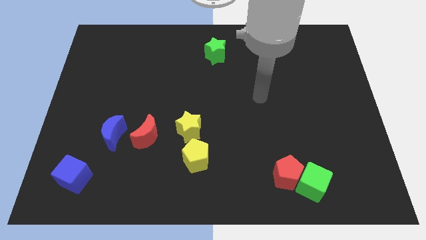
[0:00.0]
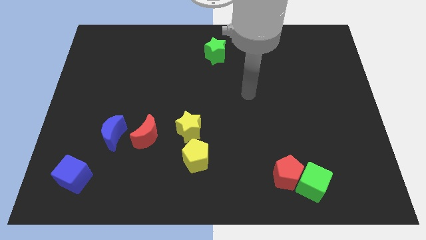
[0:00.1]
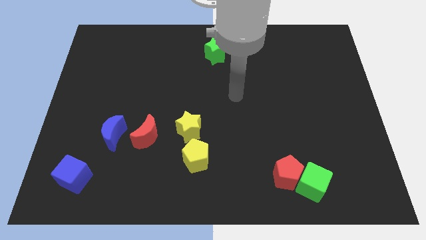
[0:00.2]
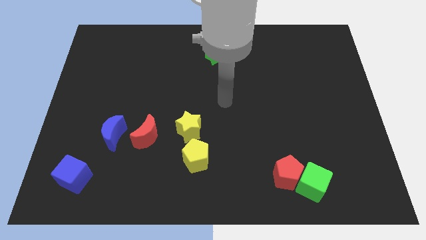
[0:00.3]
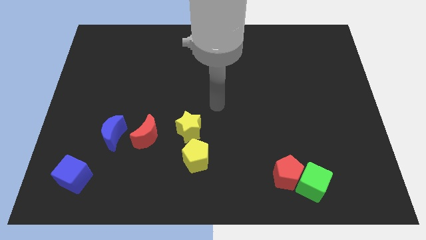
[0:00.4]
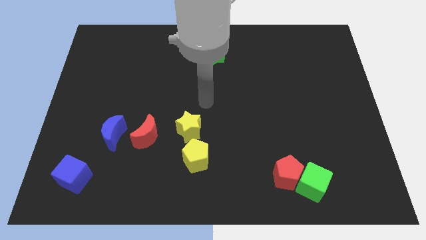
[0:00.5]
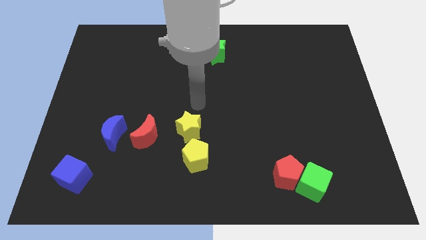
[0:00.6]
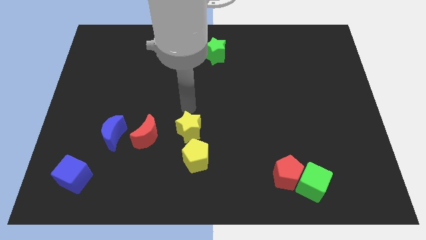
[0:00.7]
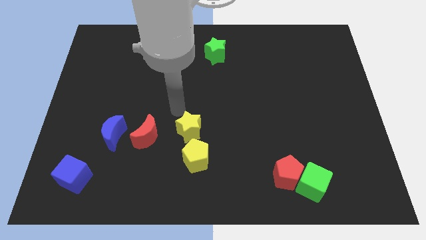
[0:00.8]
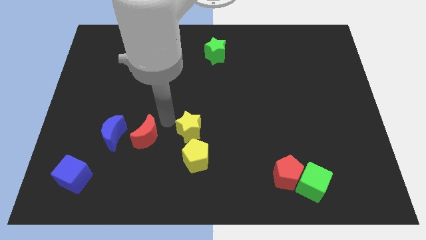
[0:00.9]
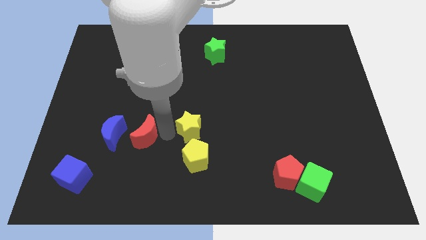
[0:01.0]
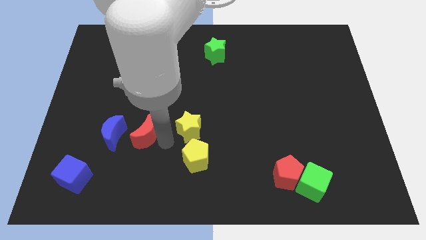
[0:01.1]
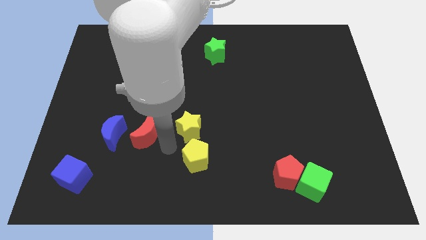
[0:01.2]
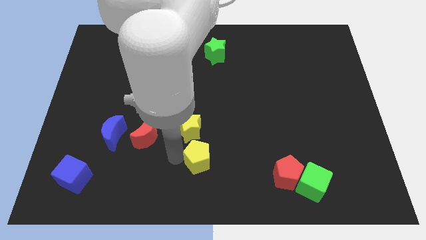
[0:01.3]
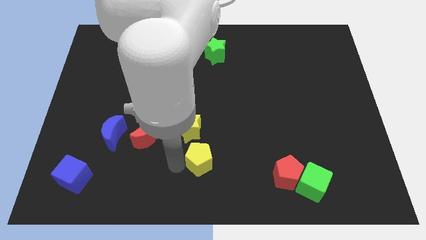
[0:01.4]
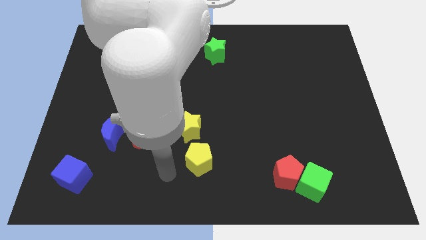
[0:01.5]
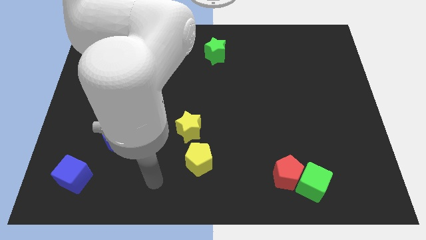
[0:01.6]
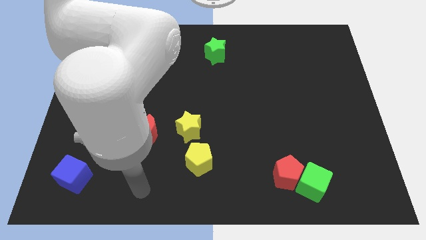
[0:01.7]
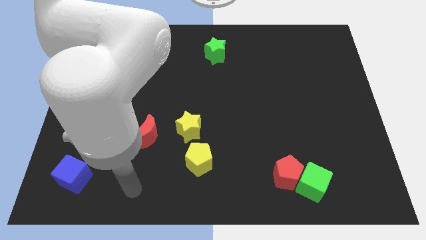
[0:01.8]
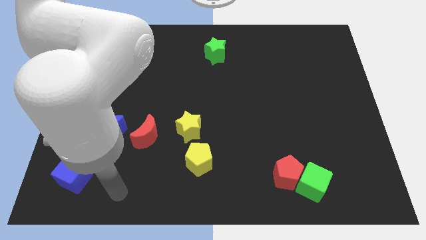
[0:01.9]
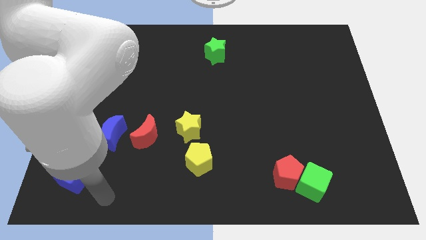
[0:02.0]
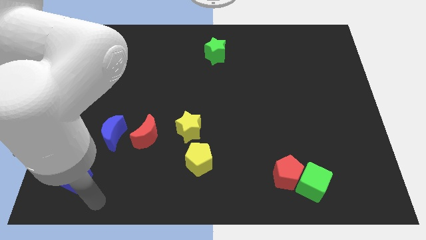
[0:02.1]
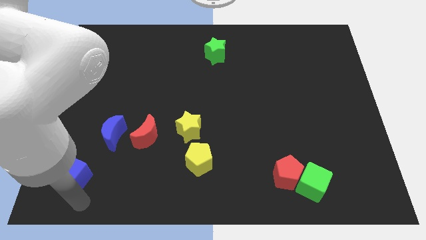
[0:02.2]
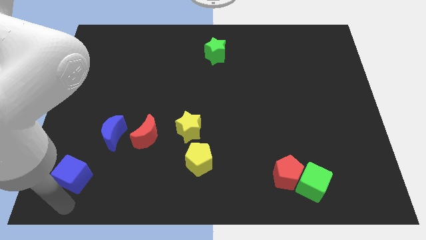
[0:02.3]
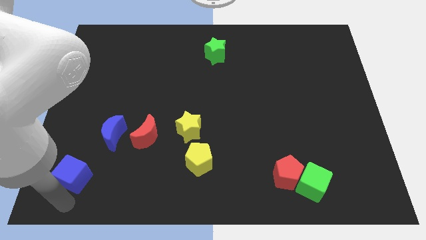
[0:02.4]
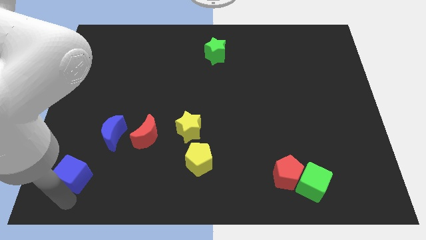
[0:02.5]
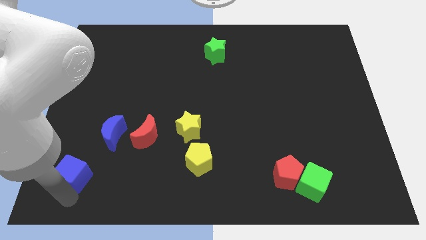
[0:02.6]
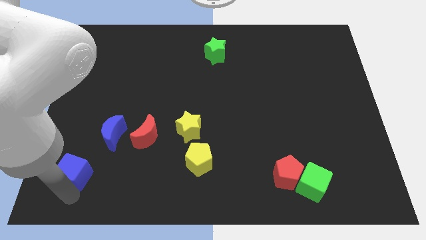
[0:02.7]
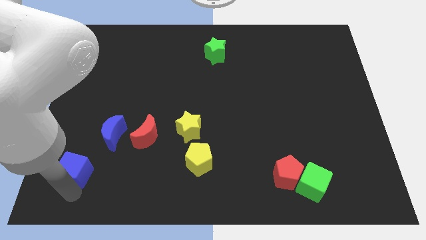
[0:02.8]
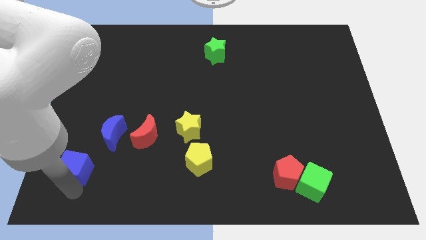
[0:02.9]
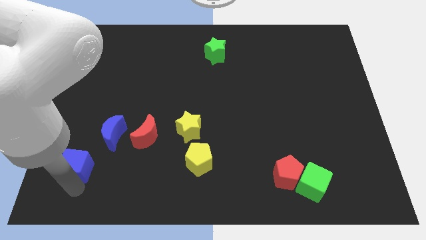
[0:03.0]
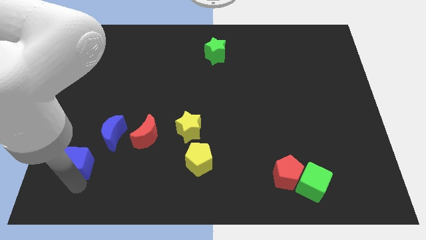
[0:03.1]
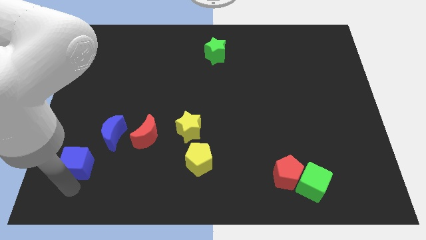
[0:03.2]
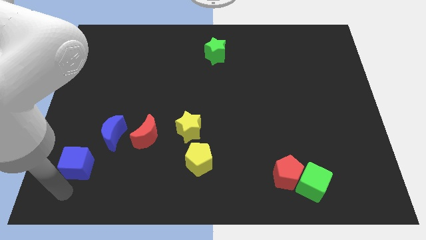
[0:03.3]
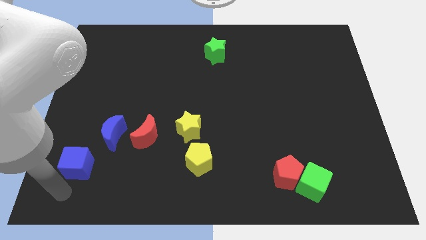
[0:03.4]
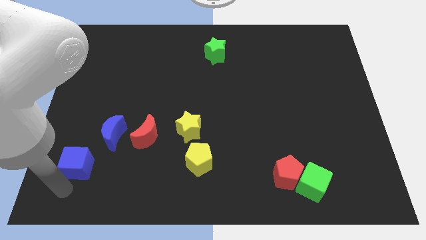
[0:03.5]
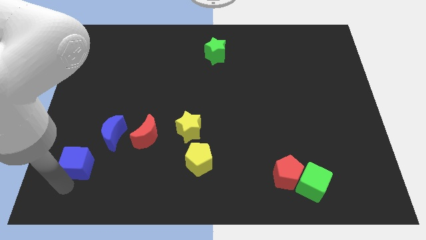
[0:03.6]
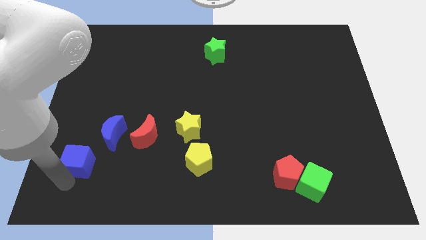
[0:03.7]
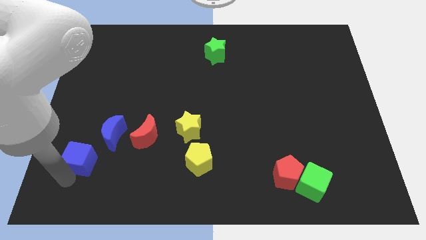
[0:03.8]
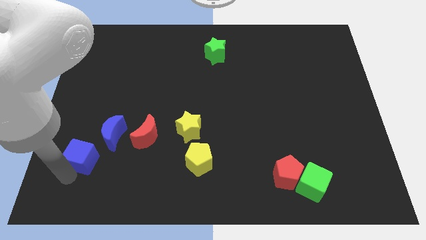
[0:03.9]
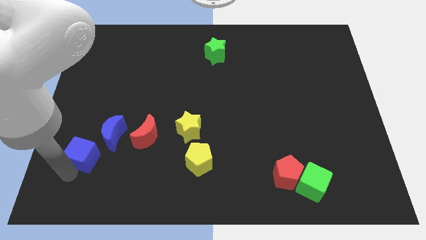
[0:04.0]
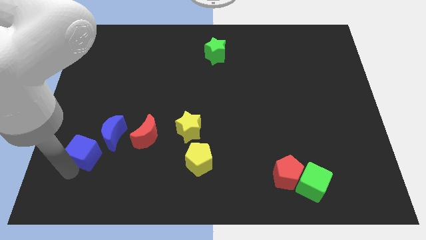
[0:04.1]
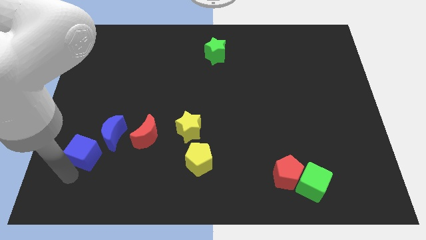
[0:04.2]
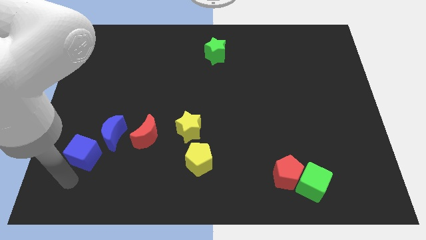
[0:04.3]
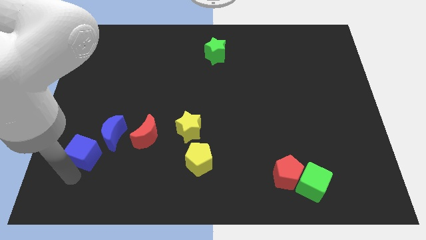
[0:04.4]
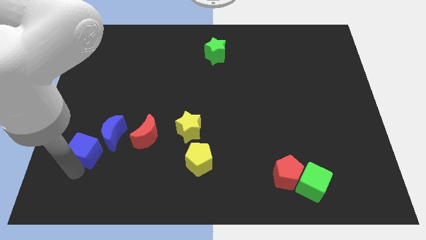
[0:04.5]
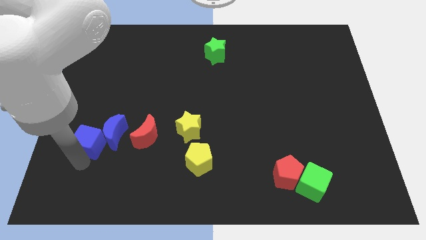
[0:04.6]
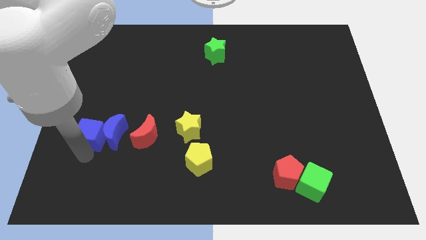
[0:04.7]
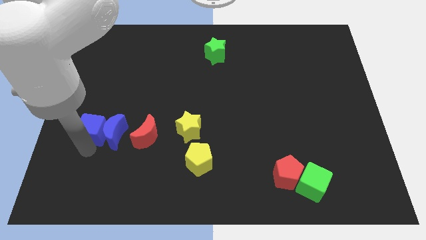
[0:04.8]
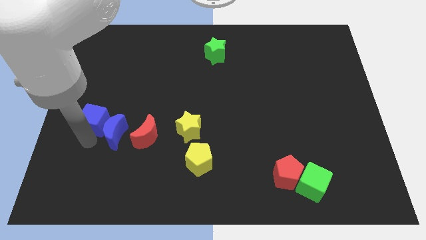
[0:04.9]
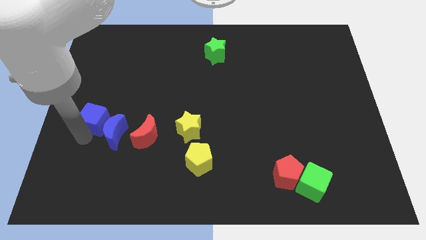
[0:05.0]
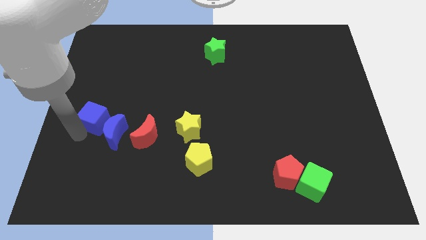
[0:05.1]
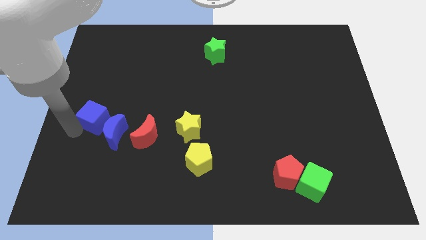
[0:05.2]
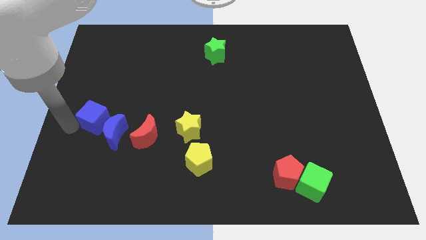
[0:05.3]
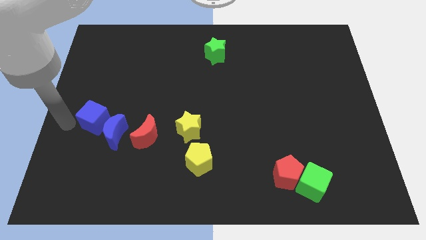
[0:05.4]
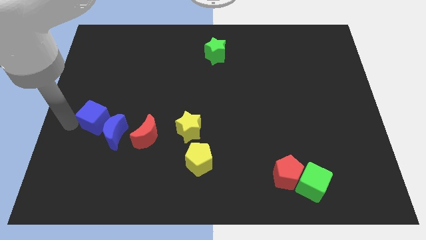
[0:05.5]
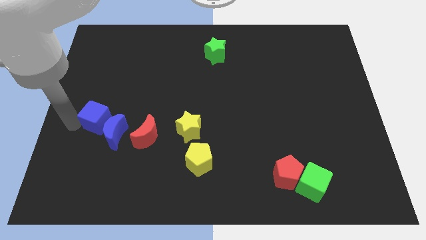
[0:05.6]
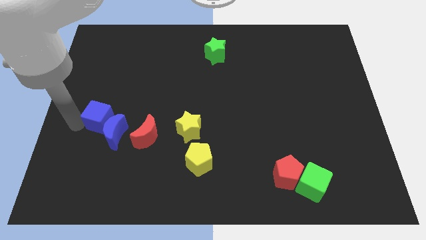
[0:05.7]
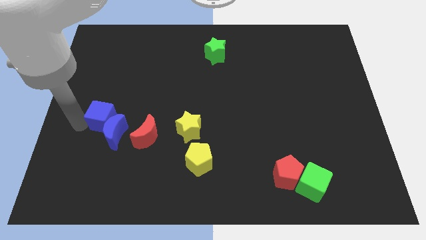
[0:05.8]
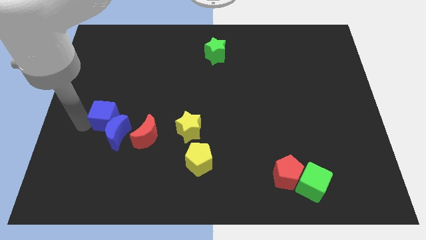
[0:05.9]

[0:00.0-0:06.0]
move the blue cube to the top left of the red moon

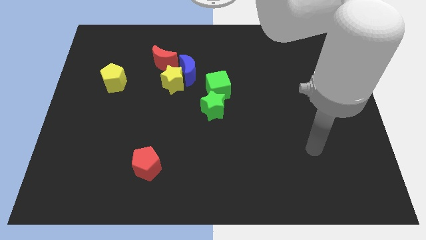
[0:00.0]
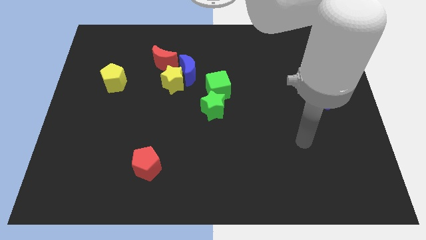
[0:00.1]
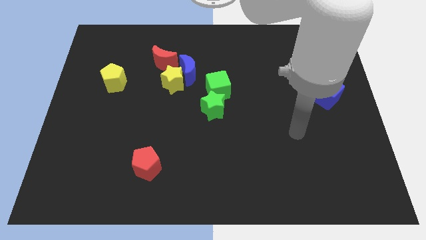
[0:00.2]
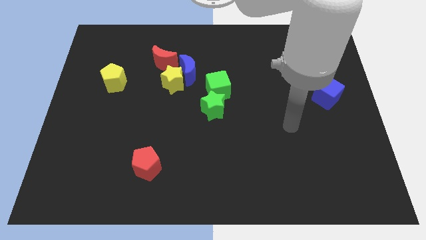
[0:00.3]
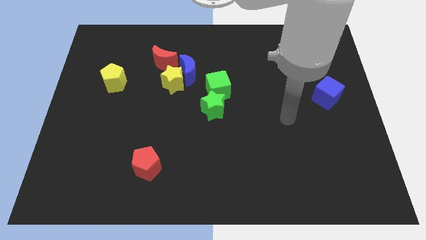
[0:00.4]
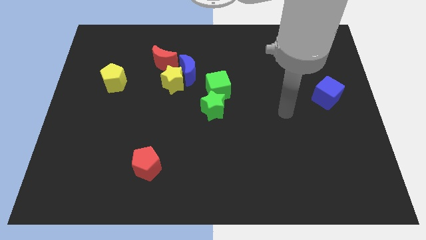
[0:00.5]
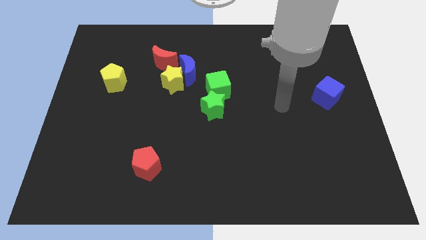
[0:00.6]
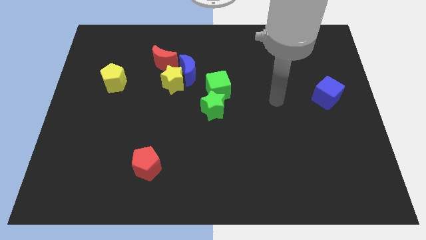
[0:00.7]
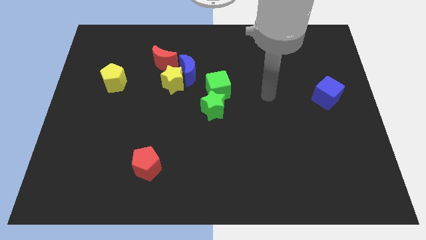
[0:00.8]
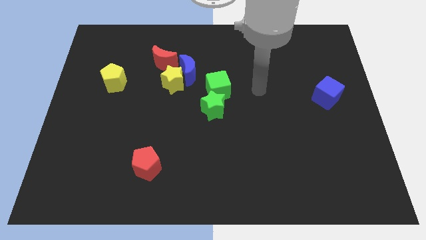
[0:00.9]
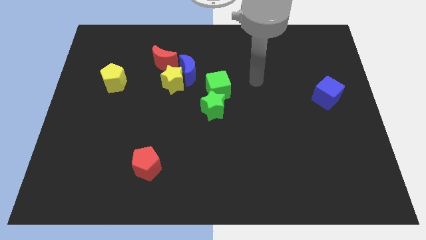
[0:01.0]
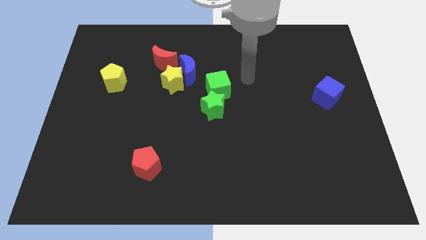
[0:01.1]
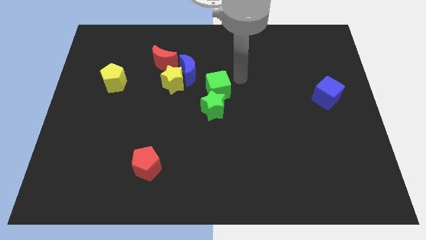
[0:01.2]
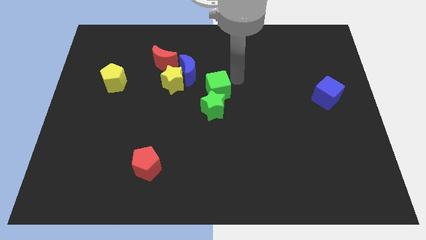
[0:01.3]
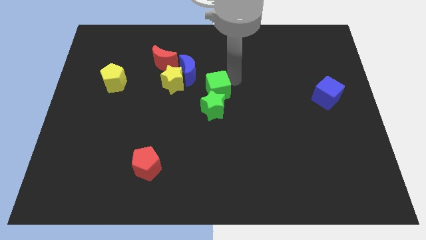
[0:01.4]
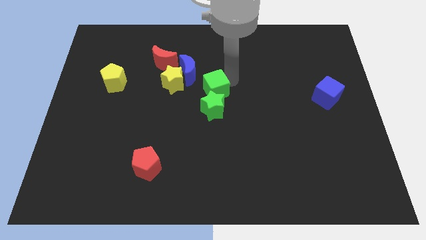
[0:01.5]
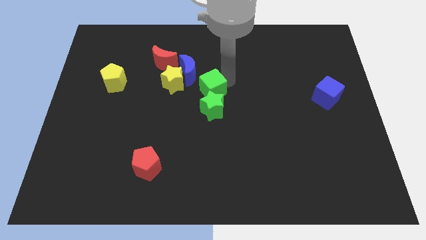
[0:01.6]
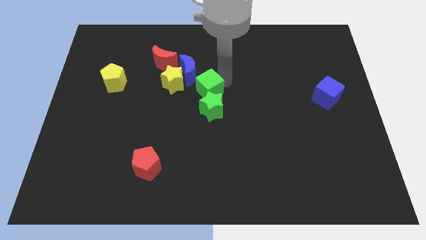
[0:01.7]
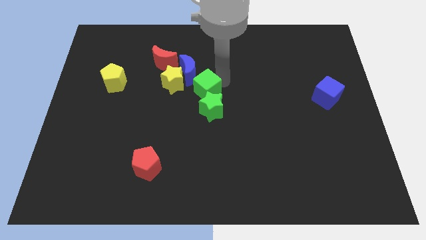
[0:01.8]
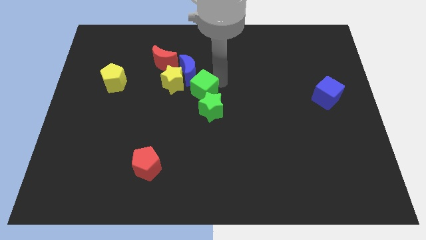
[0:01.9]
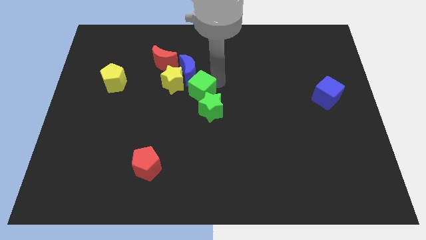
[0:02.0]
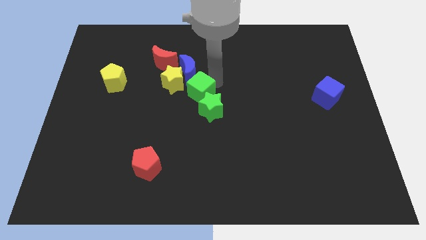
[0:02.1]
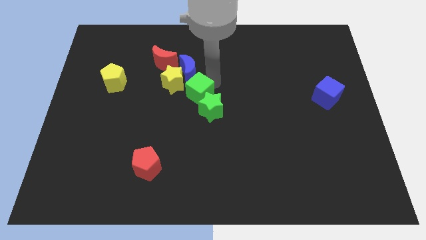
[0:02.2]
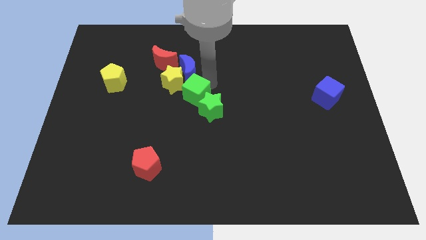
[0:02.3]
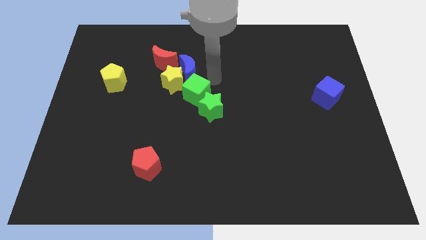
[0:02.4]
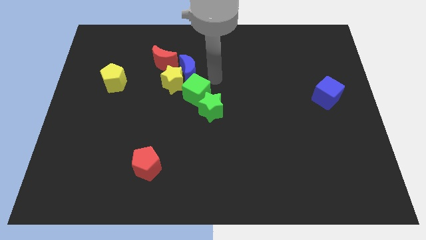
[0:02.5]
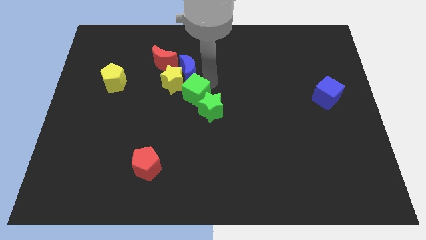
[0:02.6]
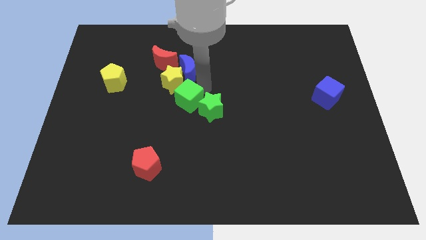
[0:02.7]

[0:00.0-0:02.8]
slide the green cube below the yellow star
